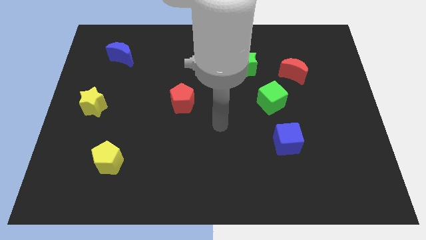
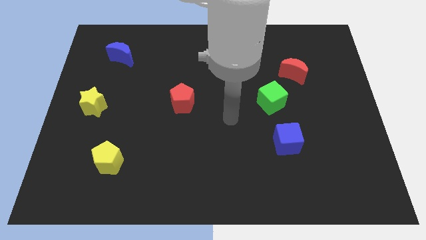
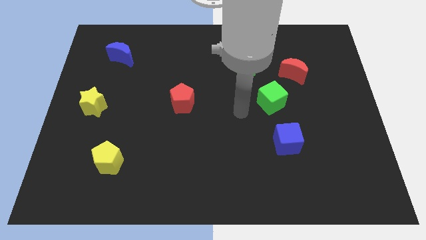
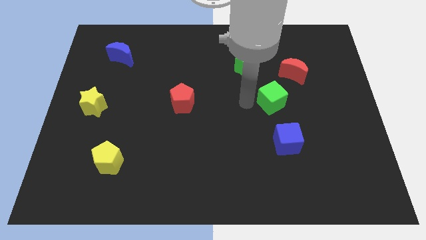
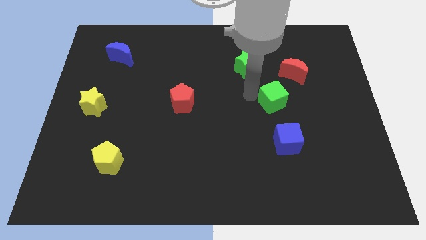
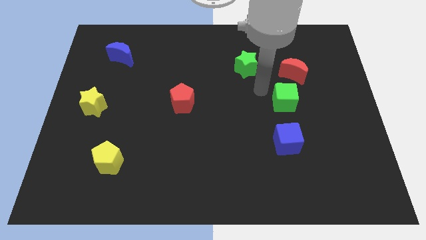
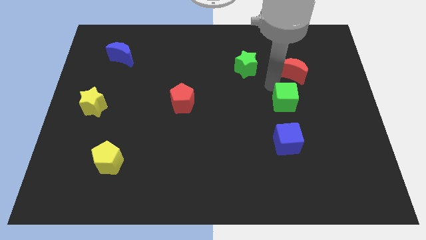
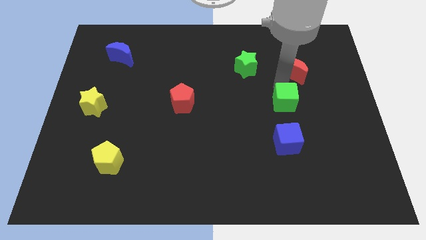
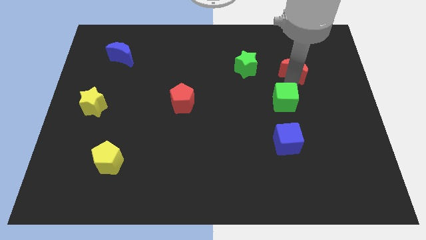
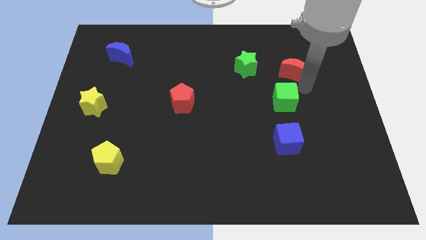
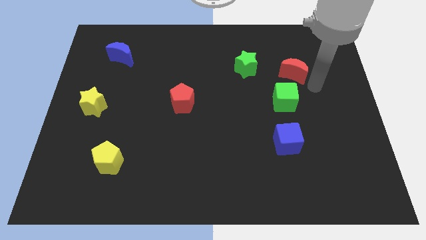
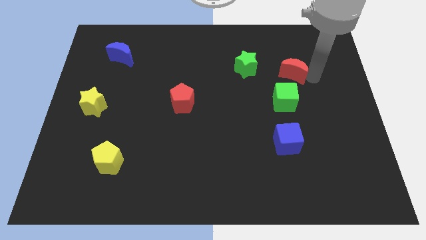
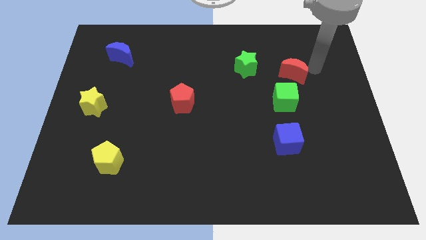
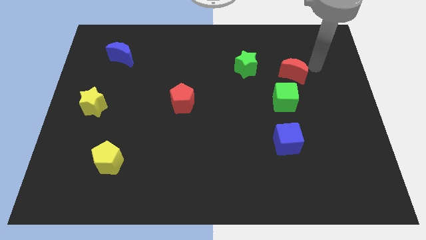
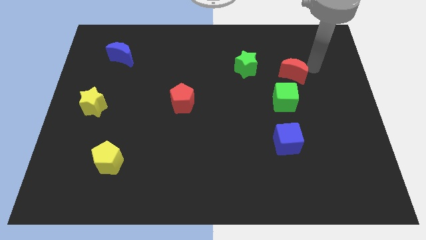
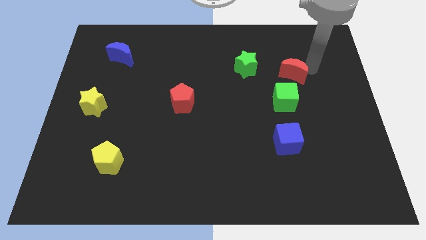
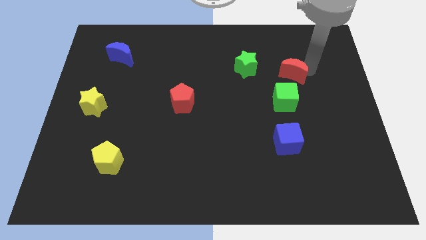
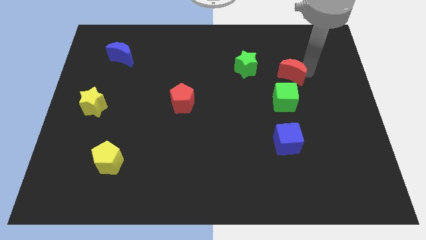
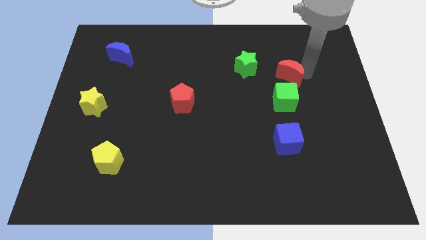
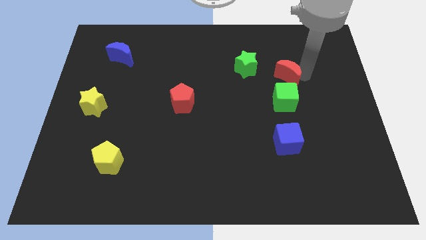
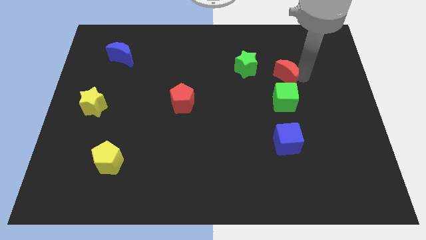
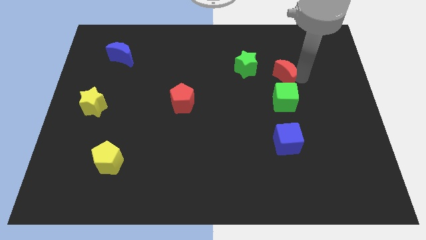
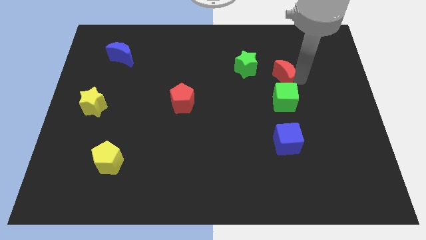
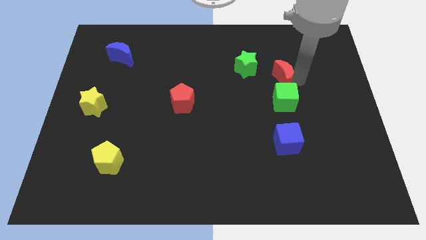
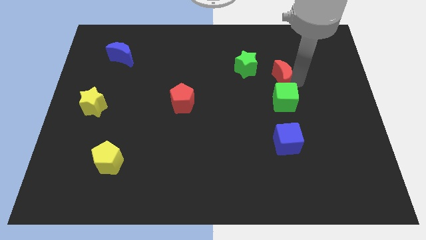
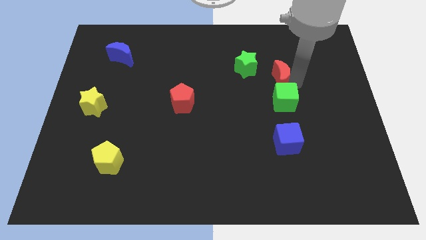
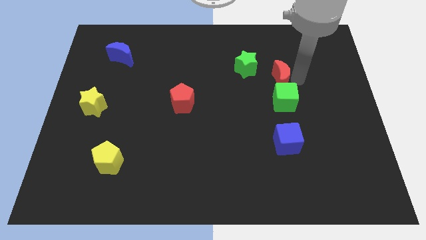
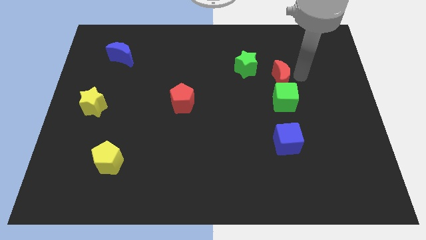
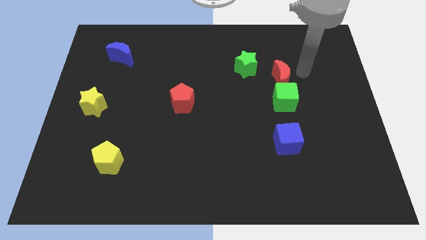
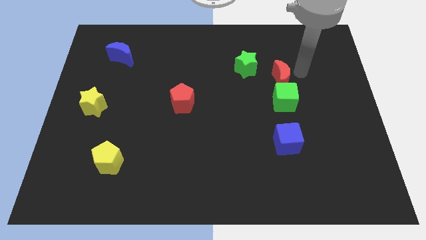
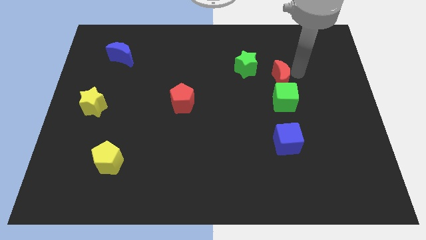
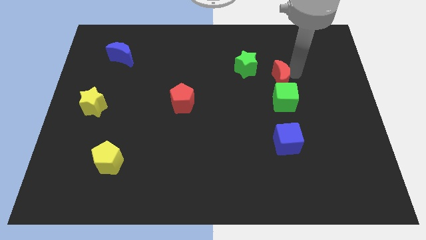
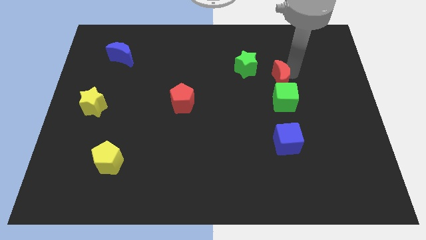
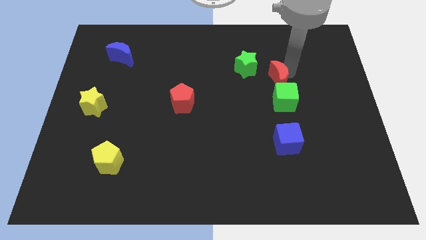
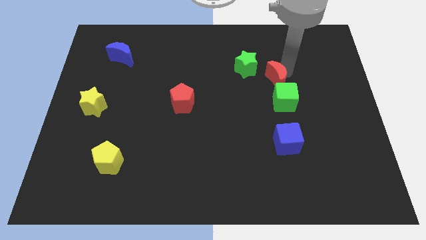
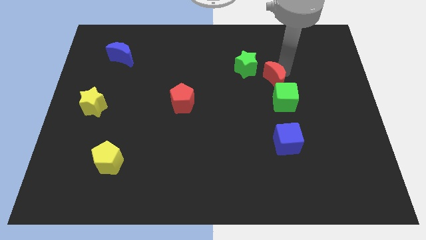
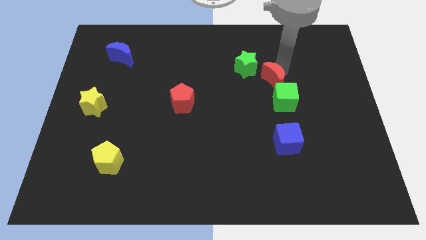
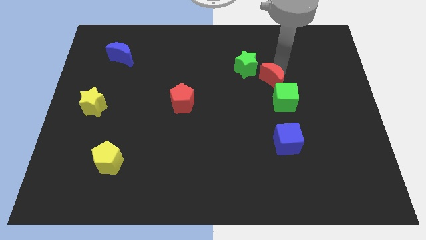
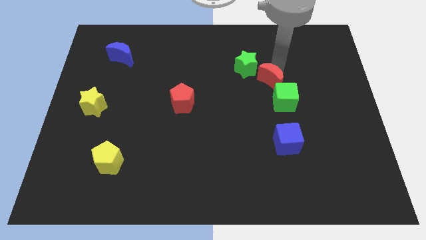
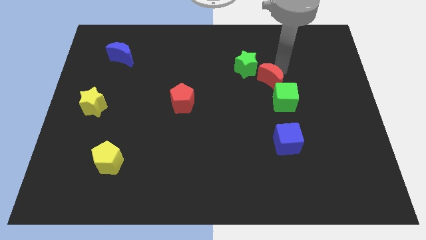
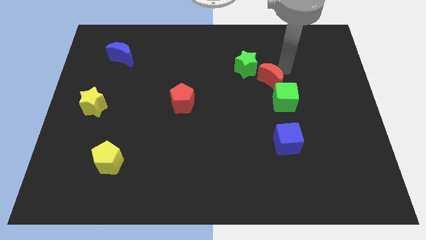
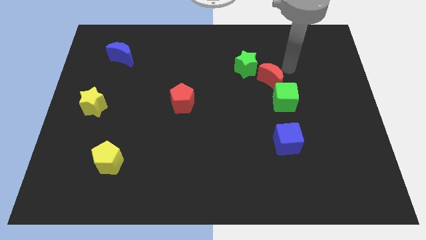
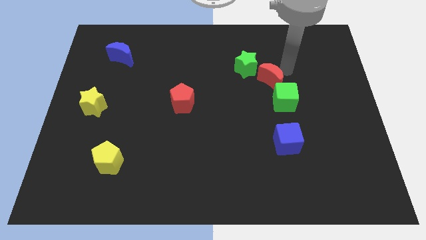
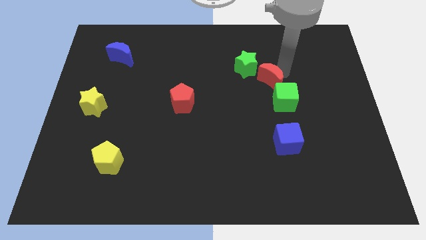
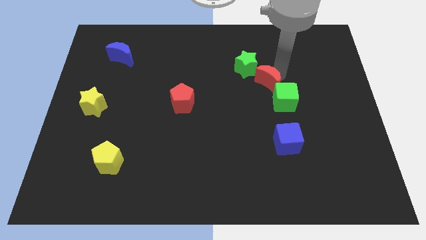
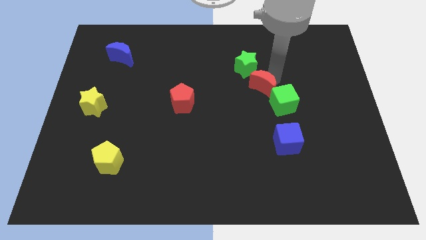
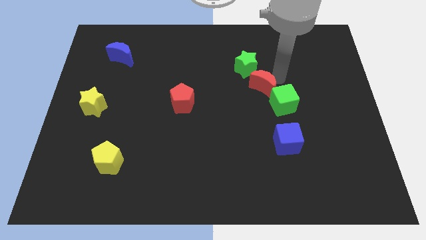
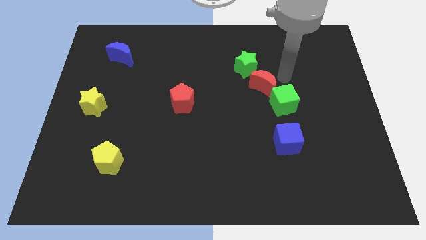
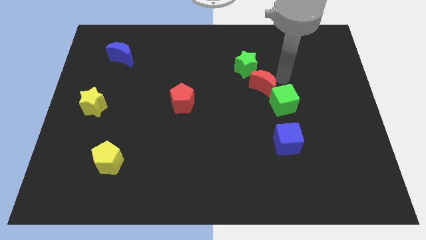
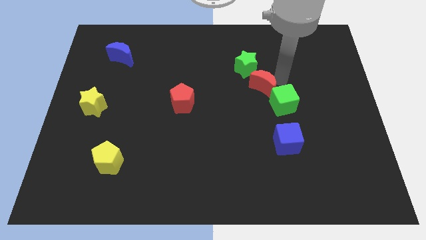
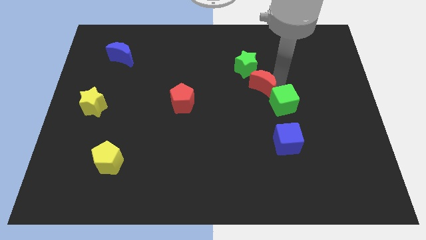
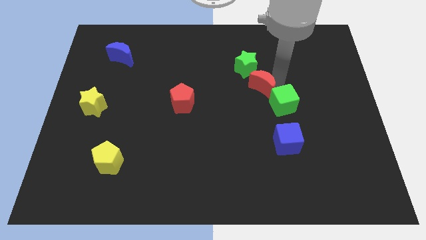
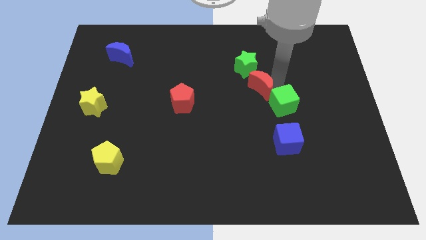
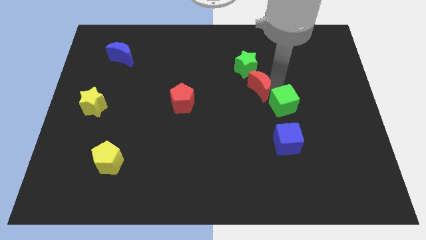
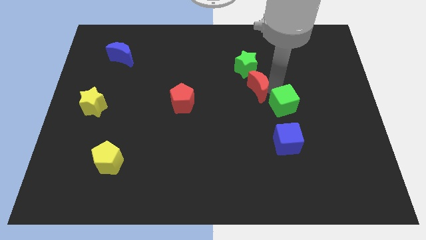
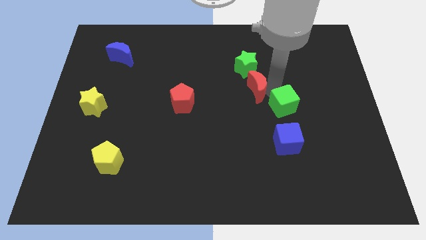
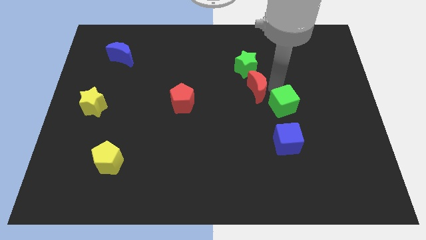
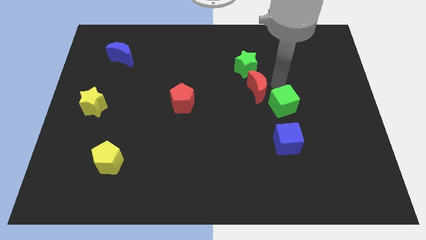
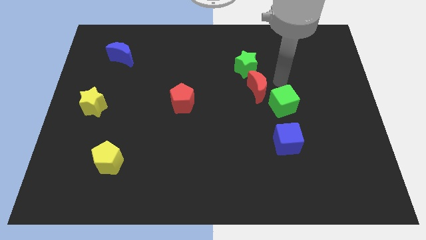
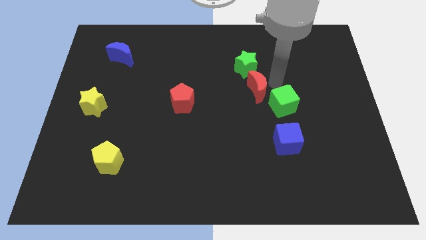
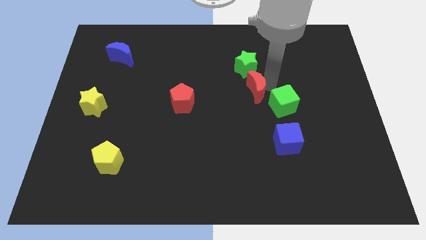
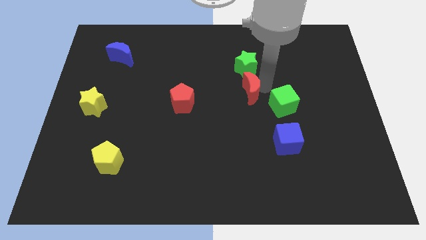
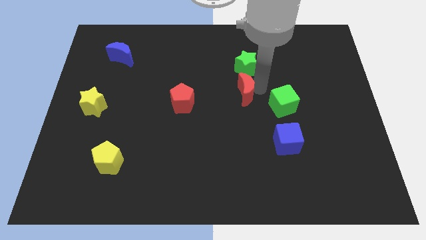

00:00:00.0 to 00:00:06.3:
slide the red moon right of the red pentagon

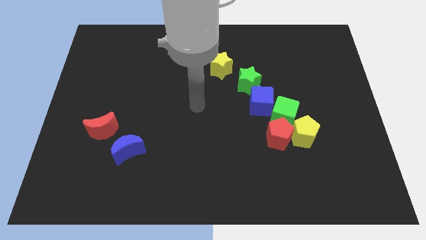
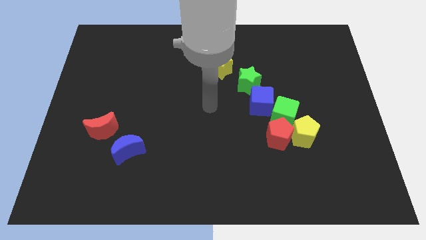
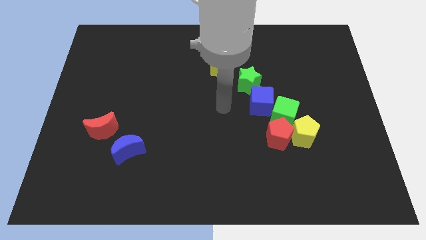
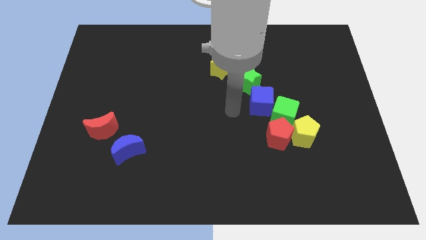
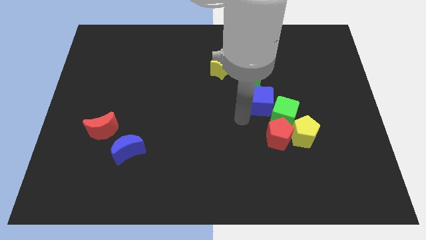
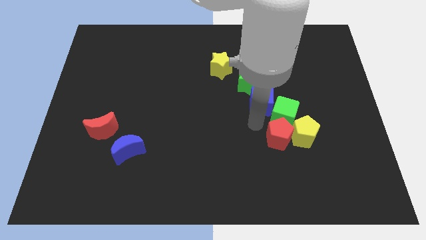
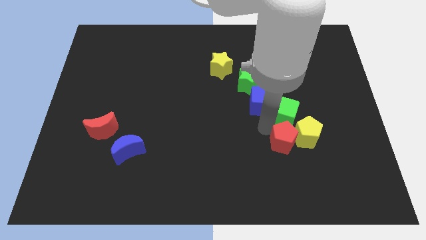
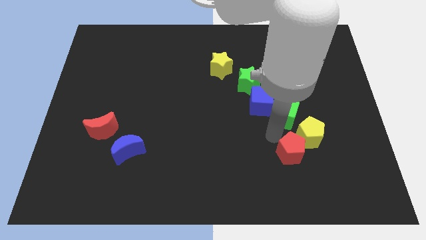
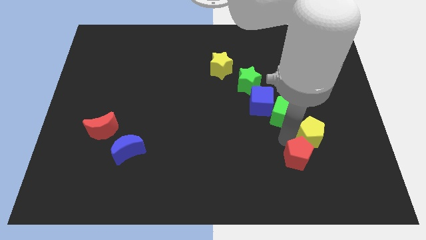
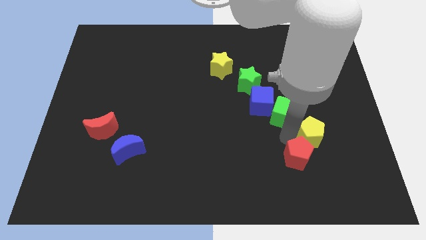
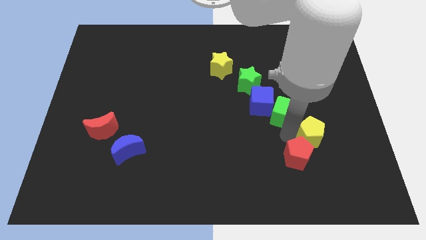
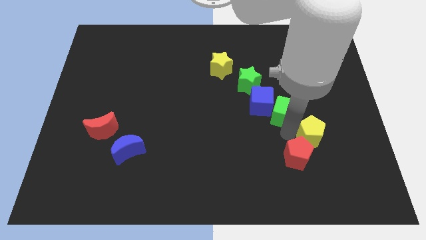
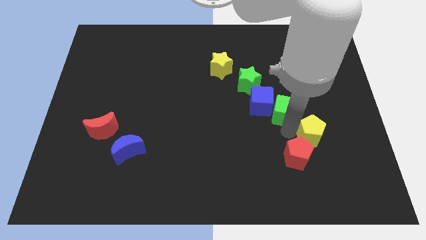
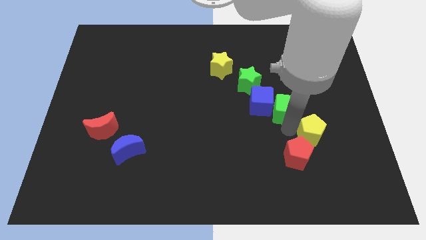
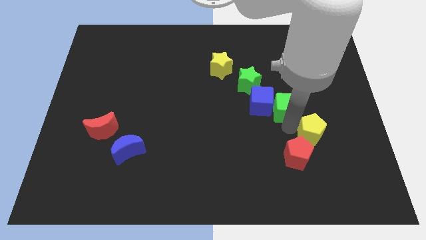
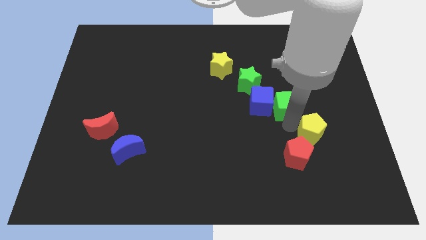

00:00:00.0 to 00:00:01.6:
put the green cube diagonally up and to the right of the blue cube
